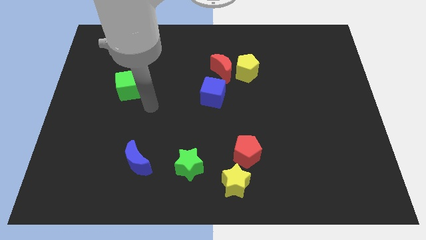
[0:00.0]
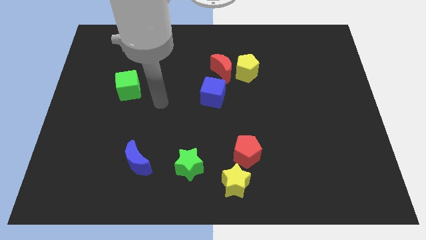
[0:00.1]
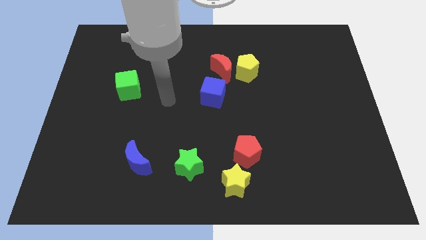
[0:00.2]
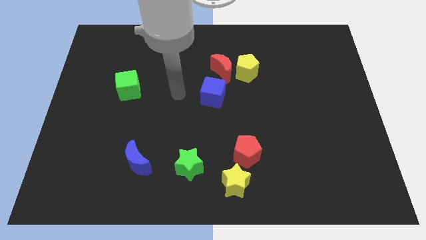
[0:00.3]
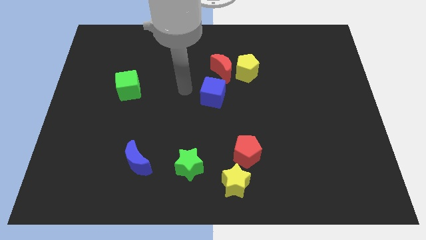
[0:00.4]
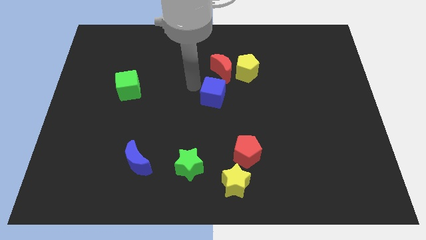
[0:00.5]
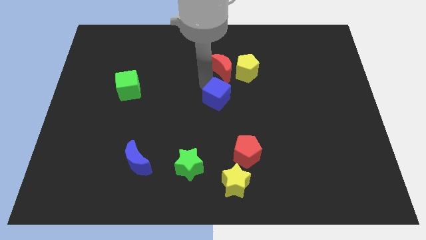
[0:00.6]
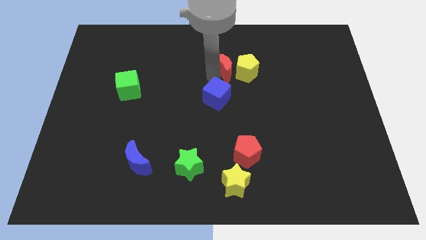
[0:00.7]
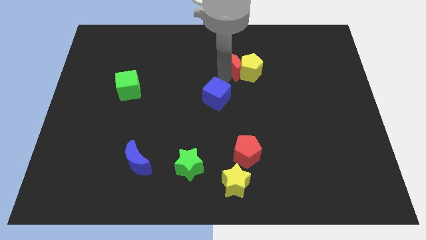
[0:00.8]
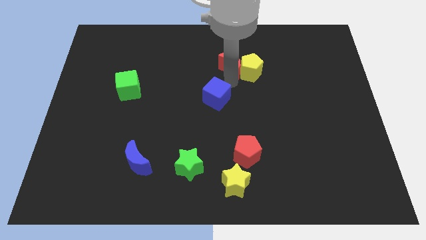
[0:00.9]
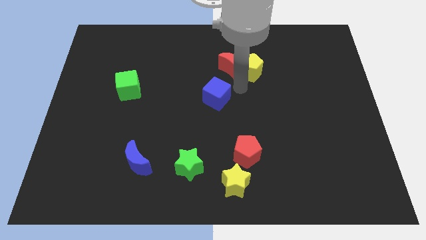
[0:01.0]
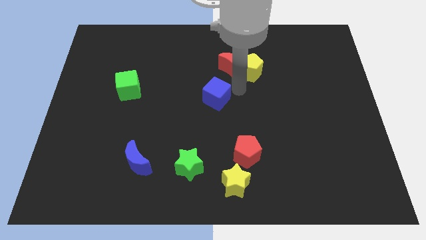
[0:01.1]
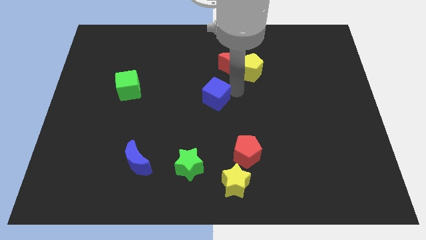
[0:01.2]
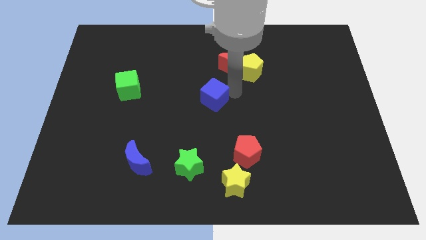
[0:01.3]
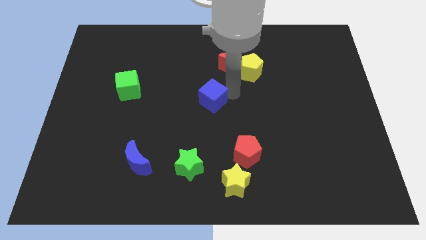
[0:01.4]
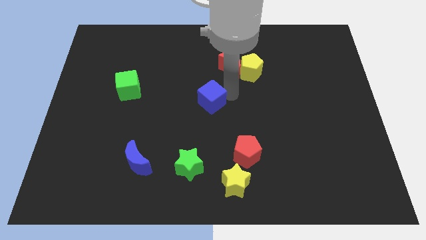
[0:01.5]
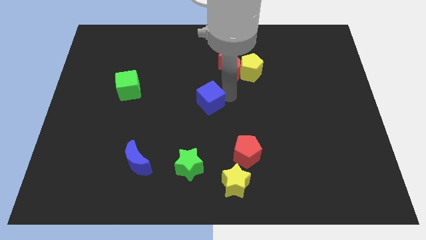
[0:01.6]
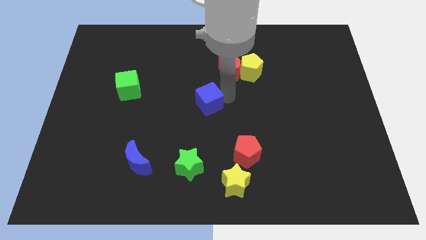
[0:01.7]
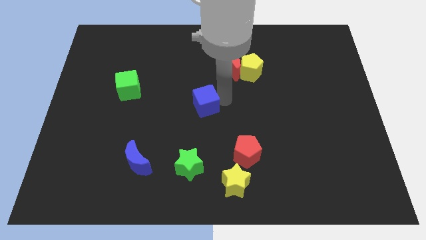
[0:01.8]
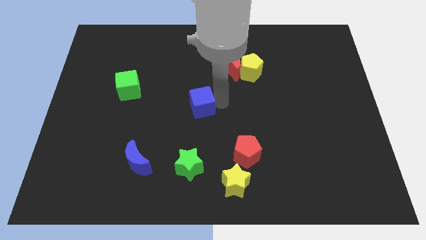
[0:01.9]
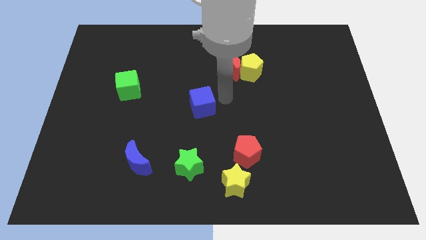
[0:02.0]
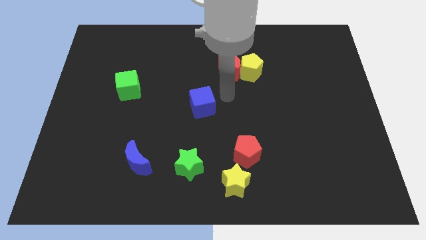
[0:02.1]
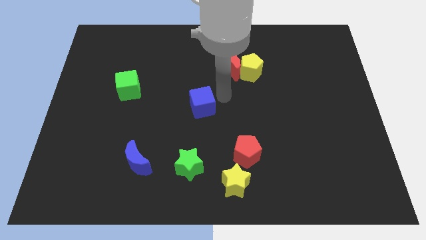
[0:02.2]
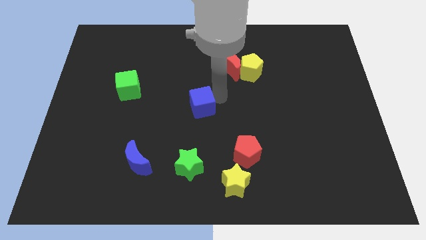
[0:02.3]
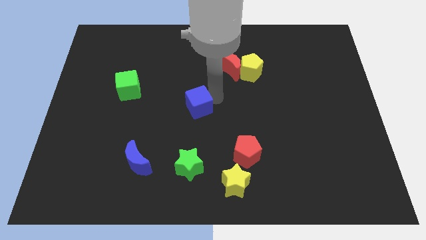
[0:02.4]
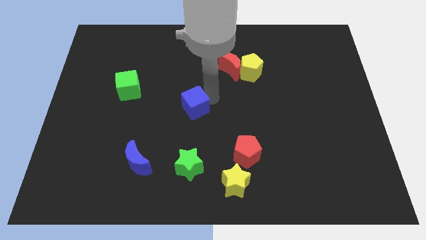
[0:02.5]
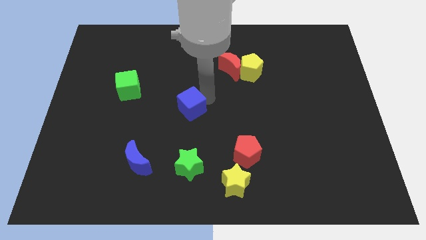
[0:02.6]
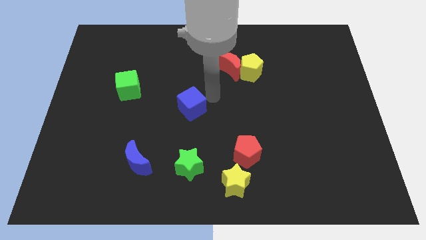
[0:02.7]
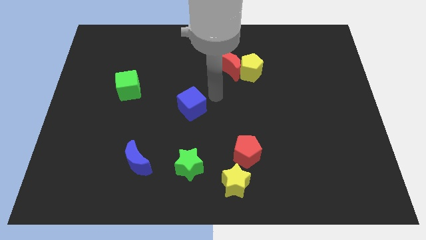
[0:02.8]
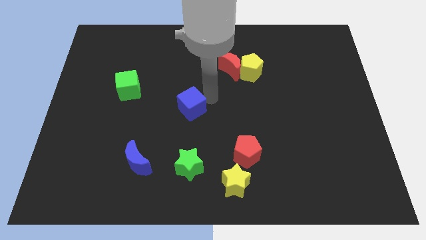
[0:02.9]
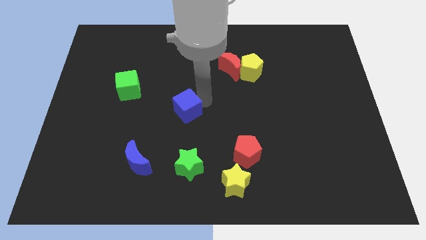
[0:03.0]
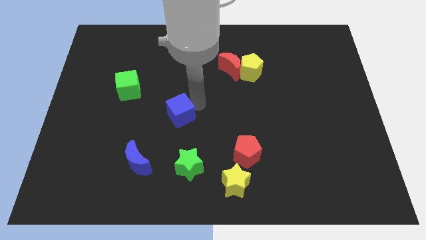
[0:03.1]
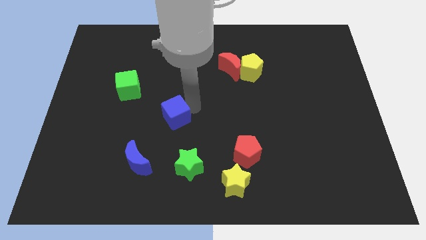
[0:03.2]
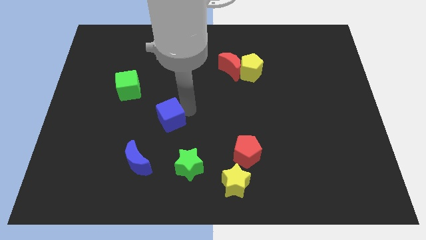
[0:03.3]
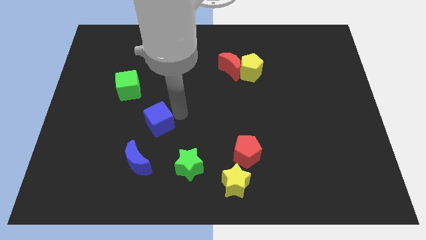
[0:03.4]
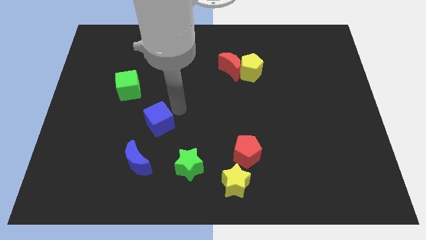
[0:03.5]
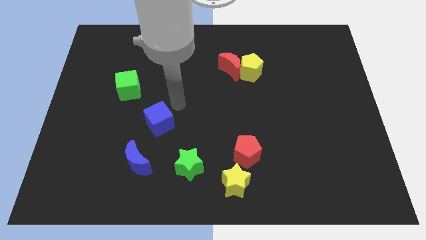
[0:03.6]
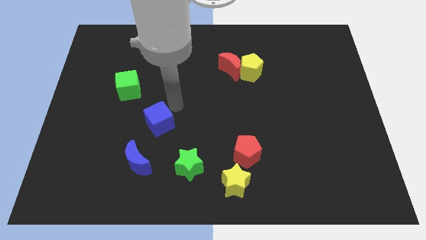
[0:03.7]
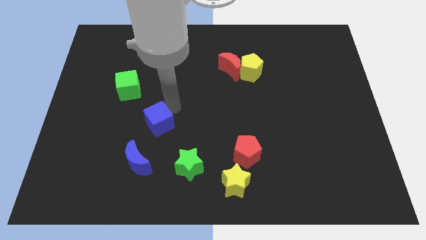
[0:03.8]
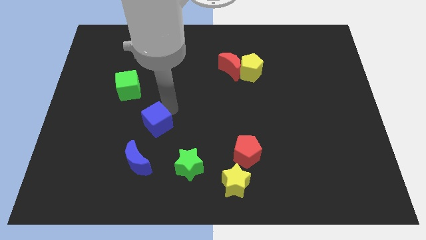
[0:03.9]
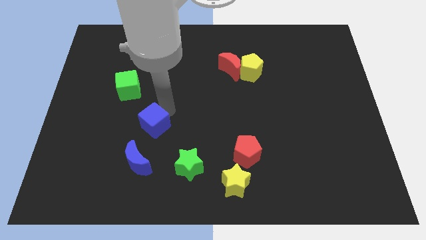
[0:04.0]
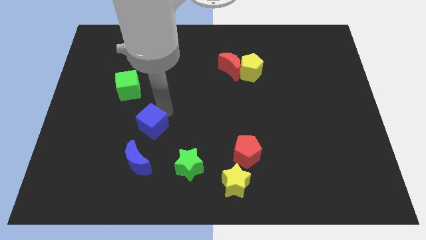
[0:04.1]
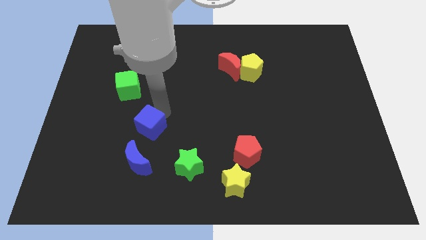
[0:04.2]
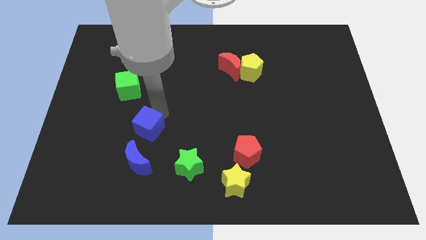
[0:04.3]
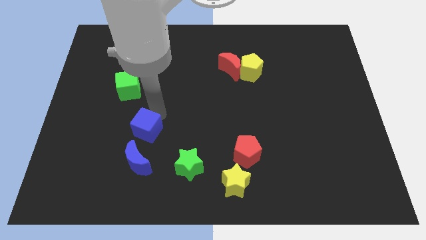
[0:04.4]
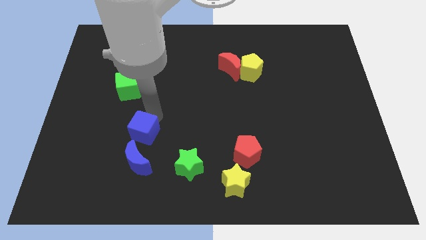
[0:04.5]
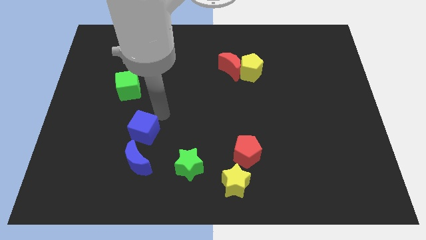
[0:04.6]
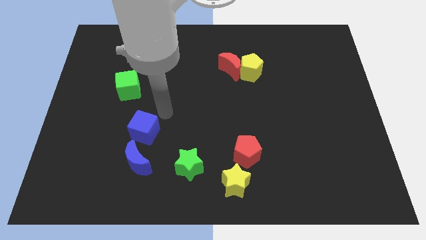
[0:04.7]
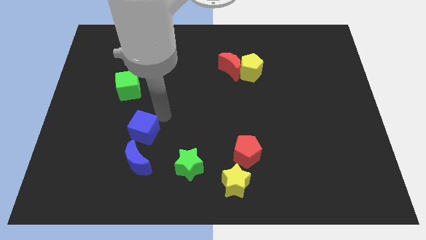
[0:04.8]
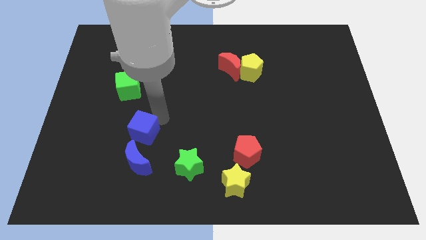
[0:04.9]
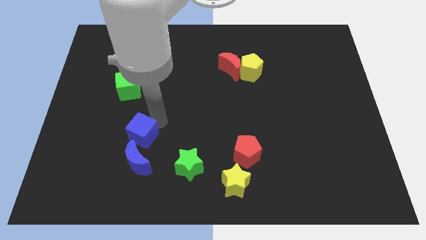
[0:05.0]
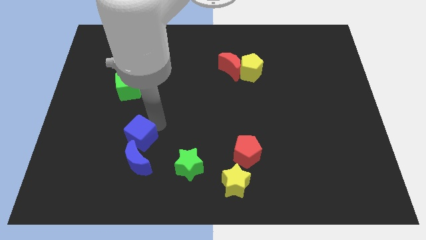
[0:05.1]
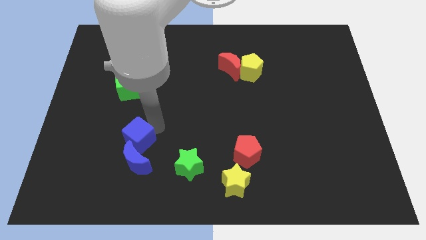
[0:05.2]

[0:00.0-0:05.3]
slide the blue cube downwards and left diagonally

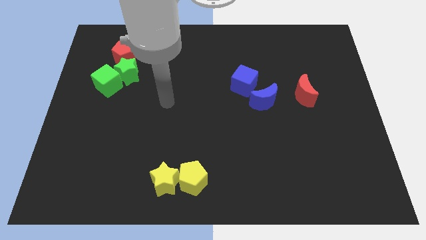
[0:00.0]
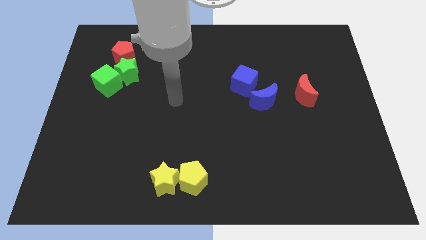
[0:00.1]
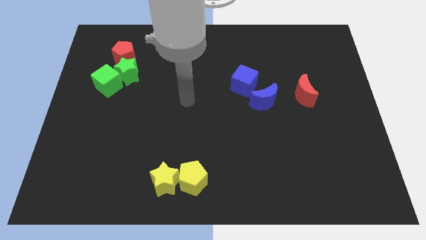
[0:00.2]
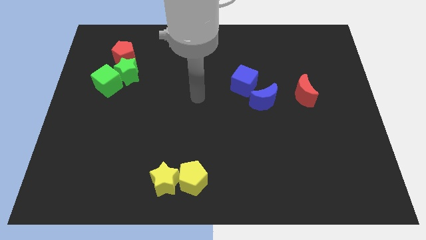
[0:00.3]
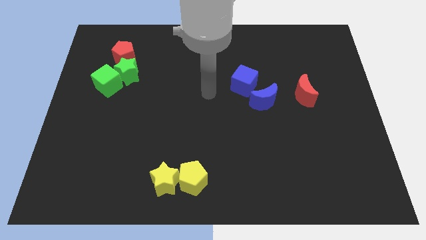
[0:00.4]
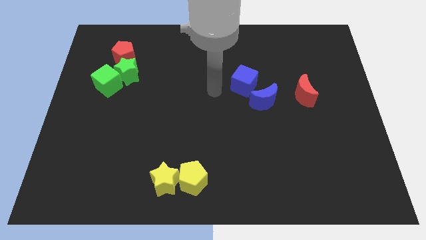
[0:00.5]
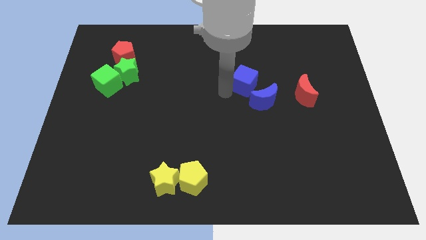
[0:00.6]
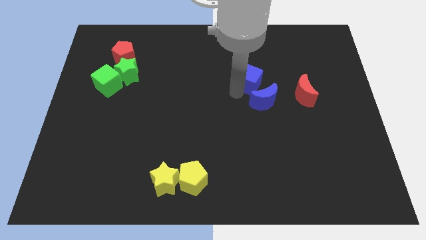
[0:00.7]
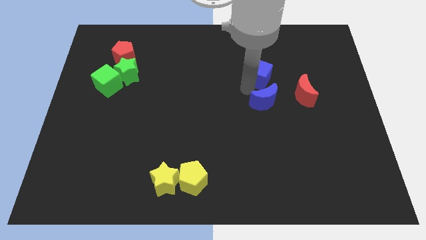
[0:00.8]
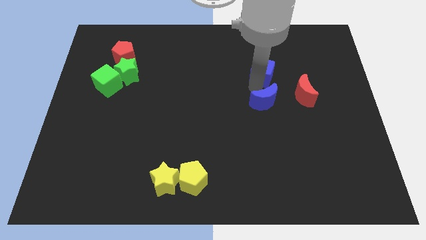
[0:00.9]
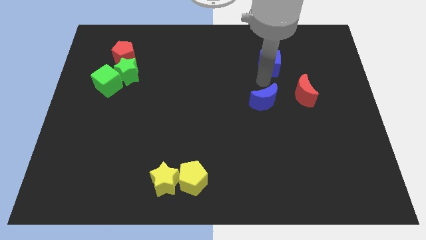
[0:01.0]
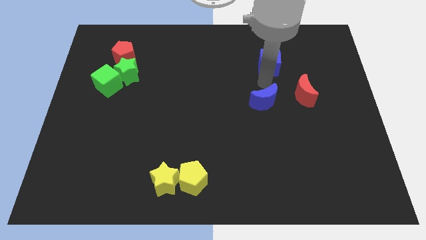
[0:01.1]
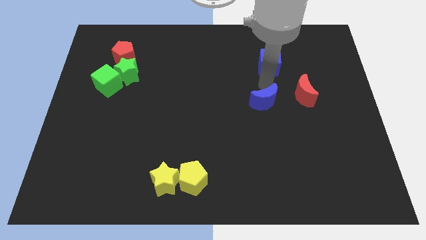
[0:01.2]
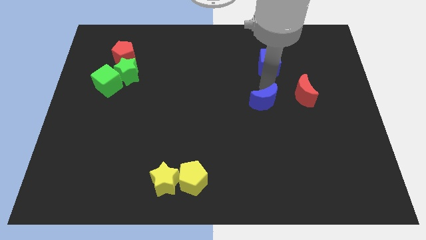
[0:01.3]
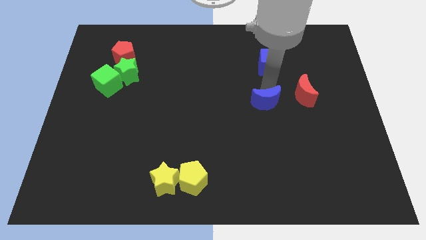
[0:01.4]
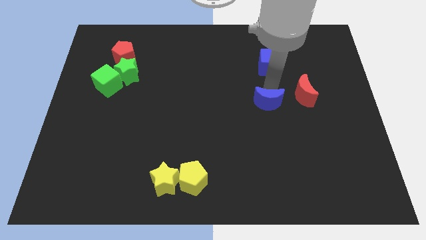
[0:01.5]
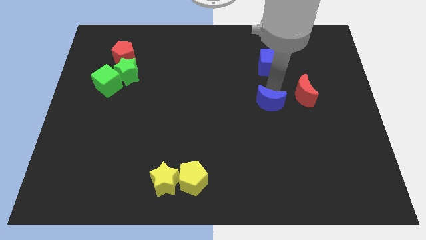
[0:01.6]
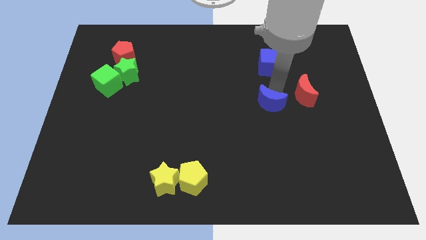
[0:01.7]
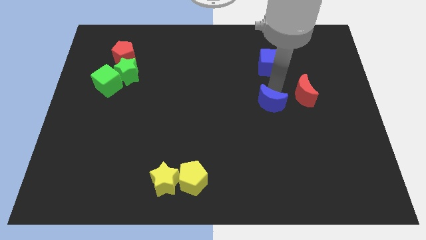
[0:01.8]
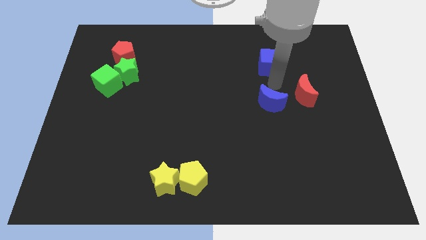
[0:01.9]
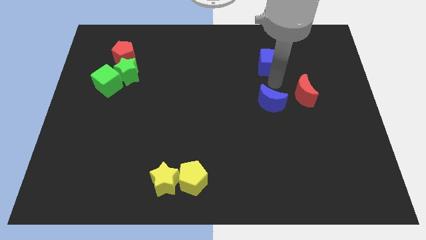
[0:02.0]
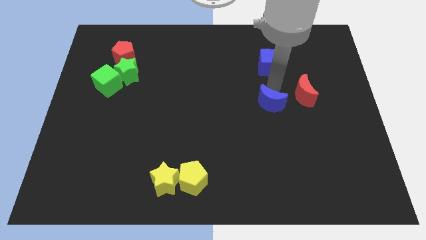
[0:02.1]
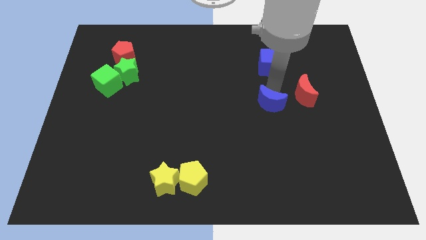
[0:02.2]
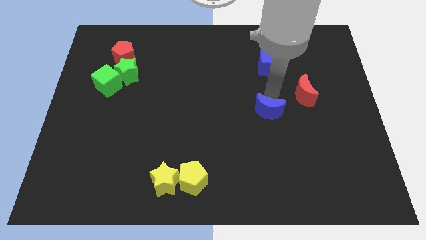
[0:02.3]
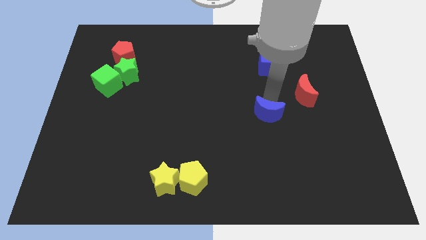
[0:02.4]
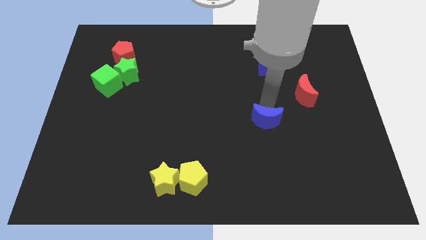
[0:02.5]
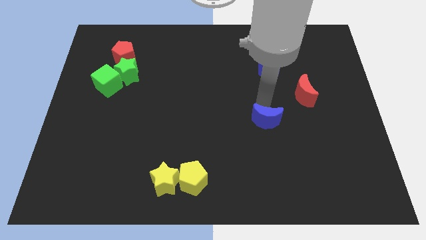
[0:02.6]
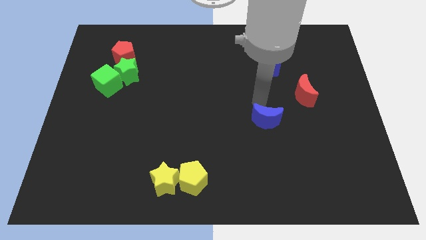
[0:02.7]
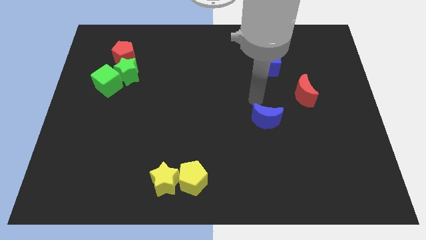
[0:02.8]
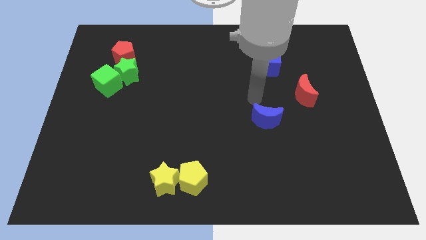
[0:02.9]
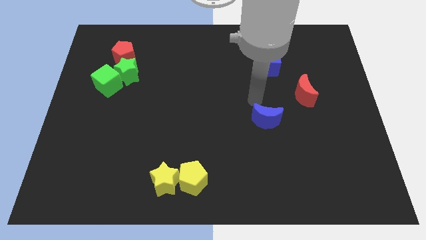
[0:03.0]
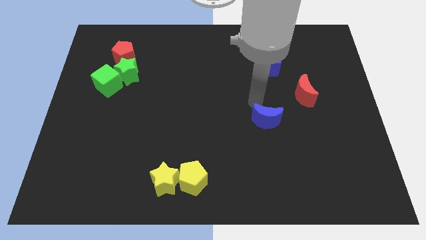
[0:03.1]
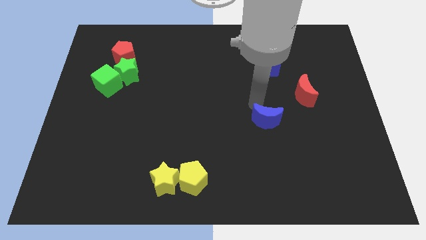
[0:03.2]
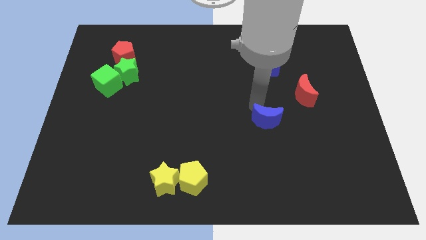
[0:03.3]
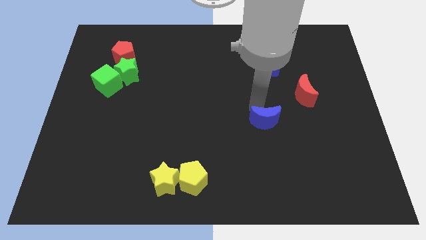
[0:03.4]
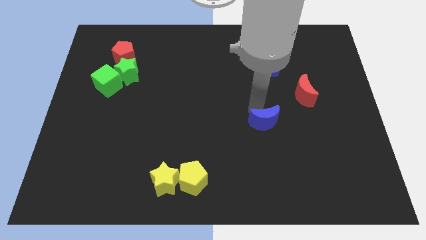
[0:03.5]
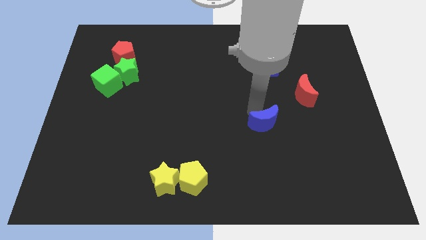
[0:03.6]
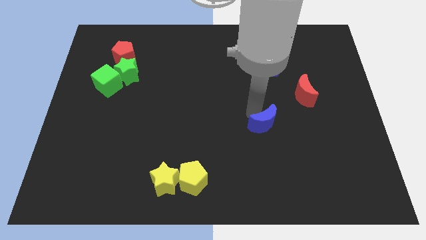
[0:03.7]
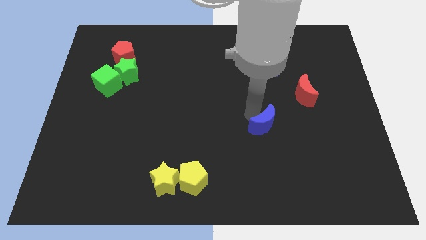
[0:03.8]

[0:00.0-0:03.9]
push the blue moon down somewhat
